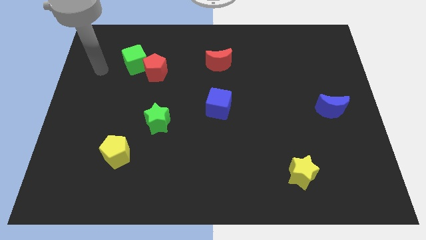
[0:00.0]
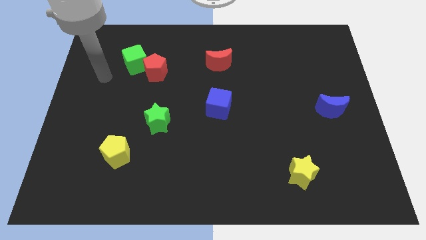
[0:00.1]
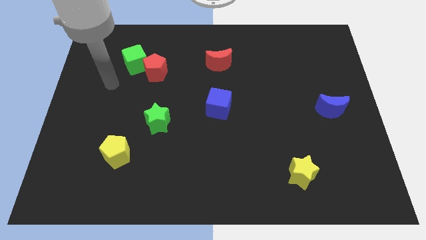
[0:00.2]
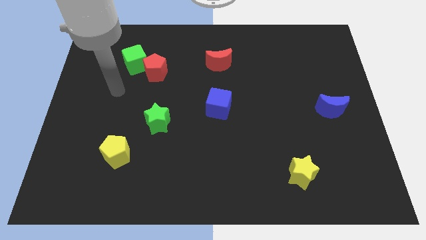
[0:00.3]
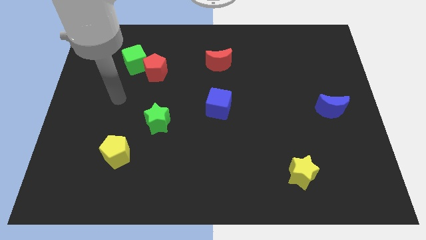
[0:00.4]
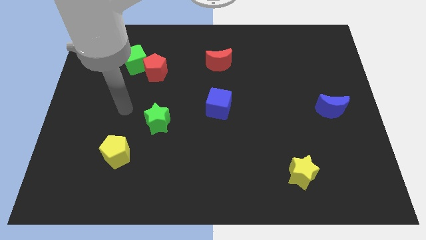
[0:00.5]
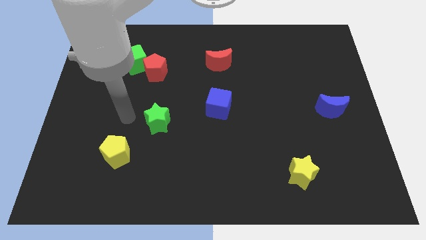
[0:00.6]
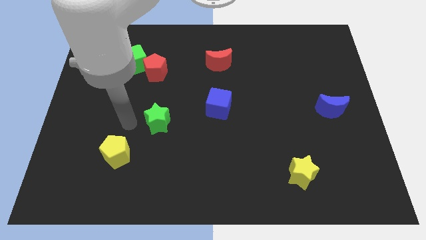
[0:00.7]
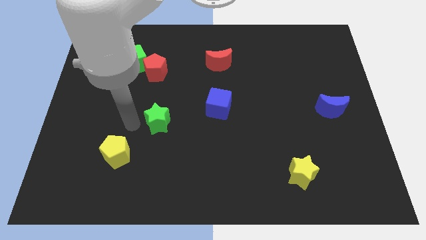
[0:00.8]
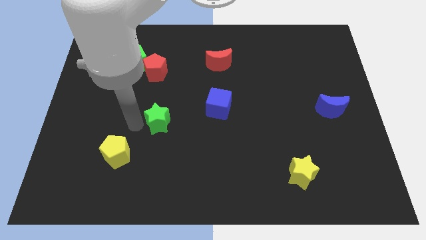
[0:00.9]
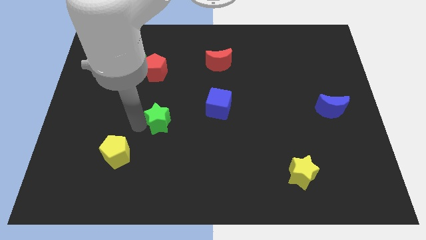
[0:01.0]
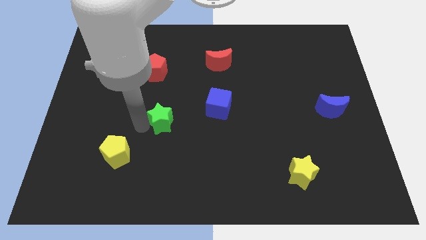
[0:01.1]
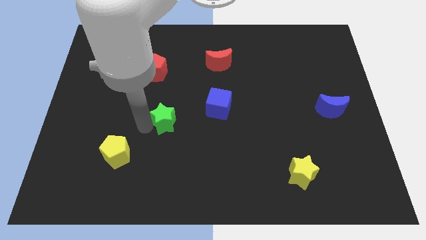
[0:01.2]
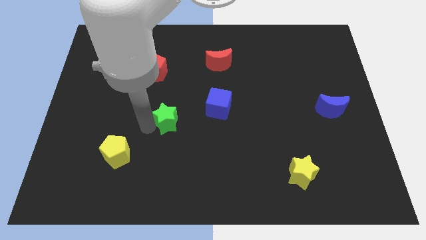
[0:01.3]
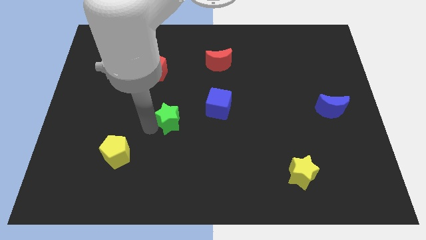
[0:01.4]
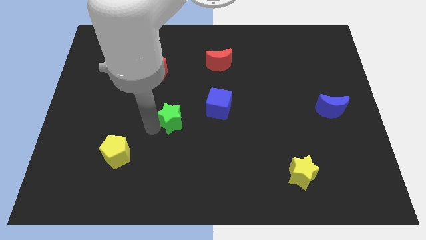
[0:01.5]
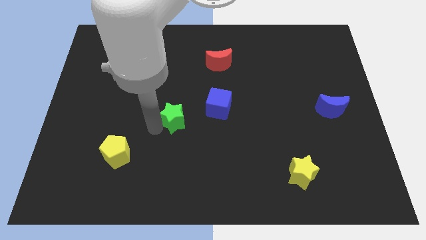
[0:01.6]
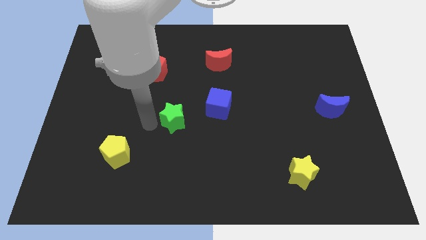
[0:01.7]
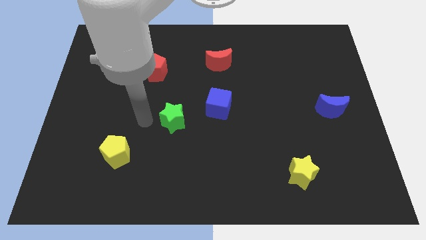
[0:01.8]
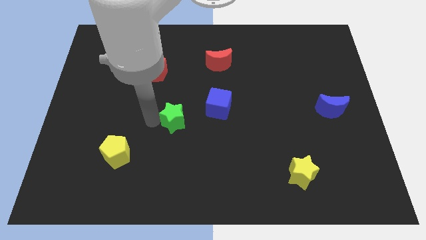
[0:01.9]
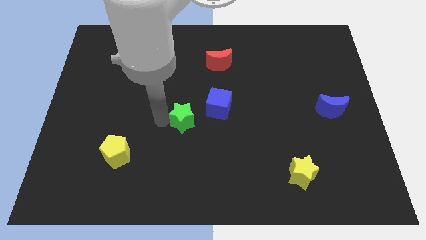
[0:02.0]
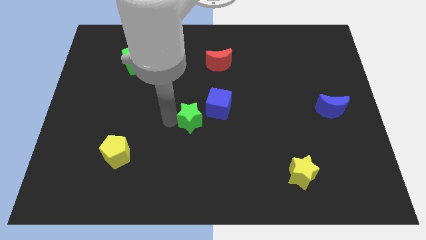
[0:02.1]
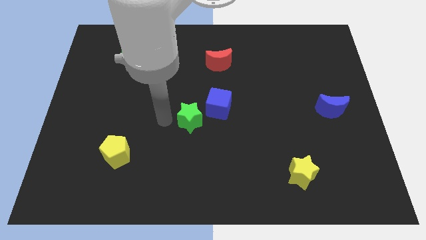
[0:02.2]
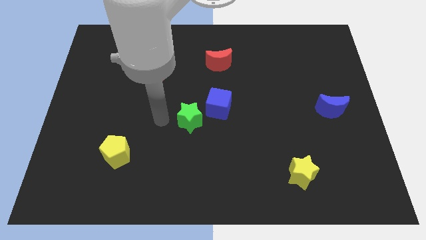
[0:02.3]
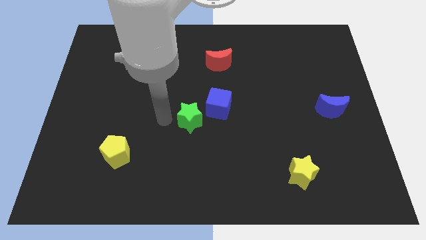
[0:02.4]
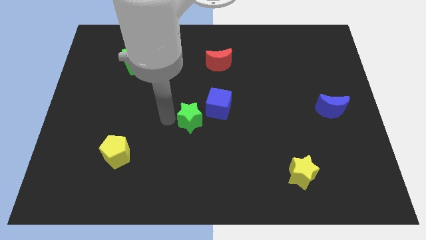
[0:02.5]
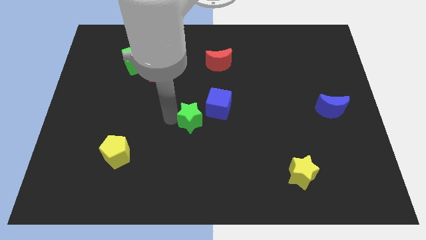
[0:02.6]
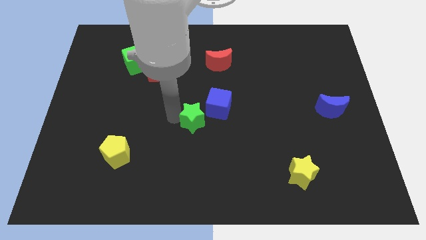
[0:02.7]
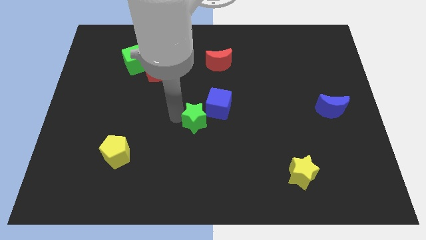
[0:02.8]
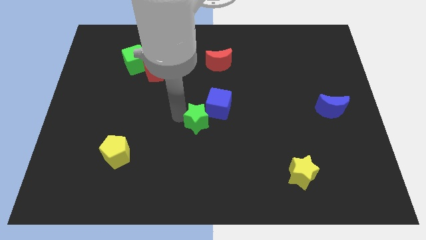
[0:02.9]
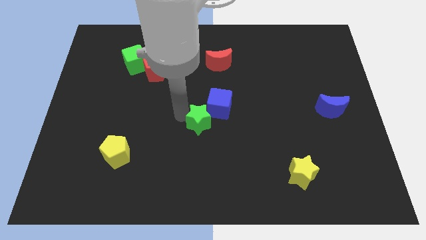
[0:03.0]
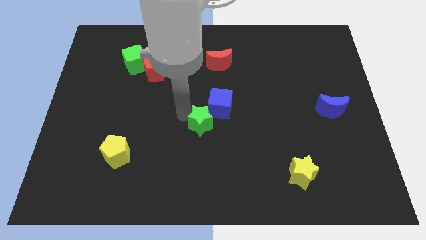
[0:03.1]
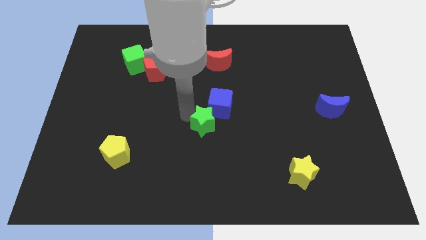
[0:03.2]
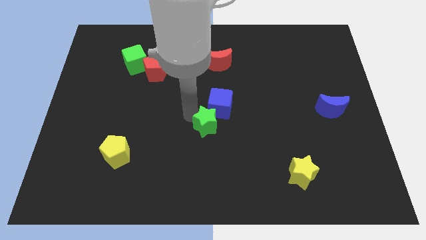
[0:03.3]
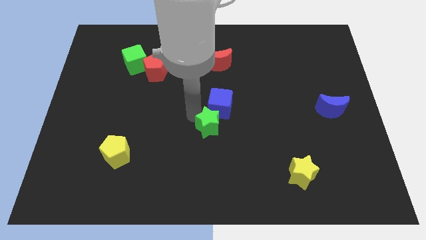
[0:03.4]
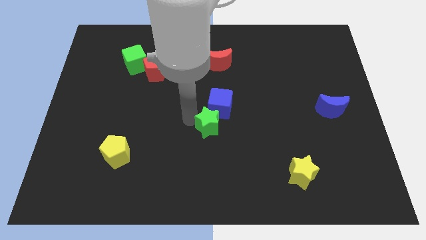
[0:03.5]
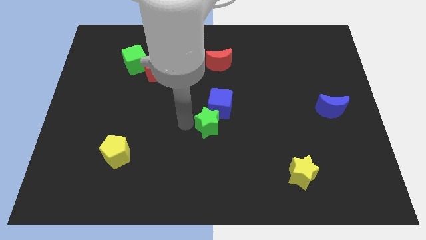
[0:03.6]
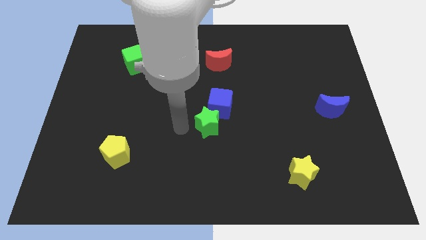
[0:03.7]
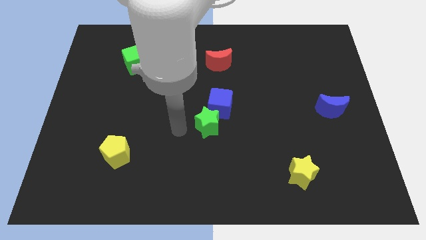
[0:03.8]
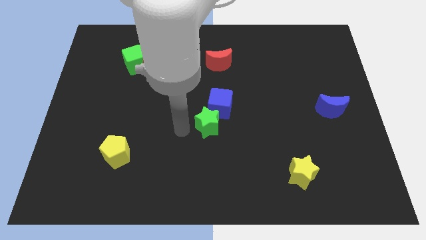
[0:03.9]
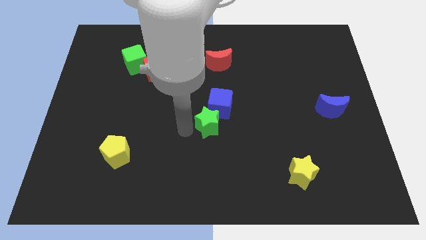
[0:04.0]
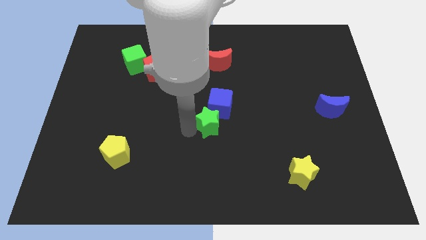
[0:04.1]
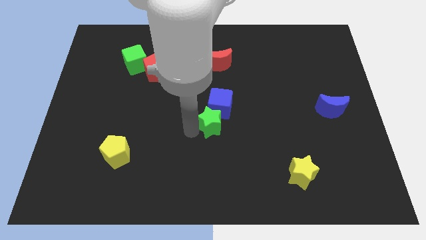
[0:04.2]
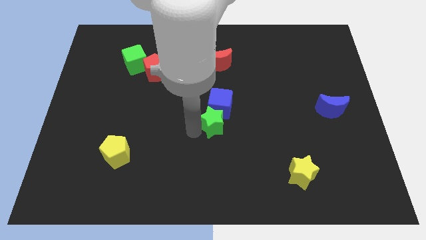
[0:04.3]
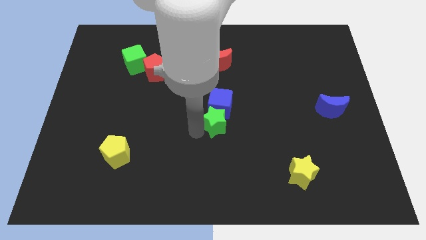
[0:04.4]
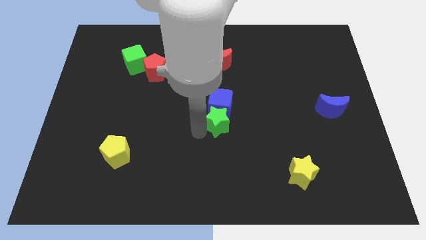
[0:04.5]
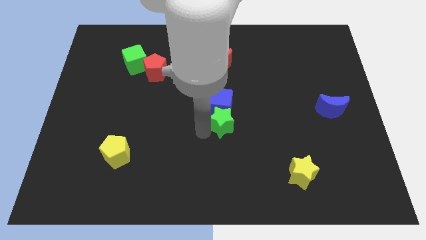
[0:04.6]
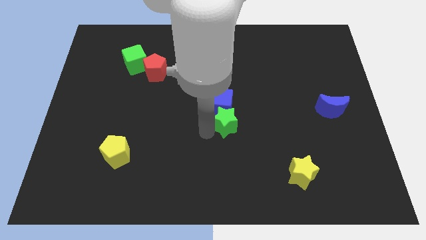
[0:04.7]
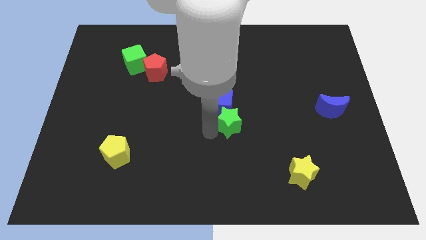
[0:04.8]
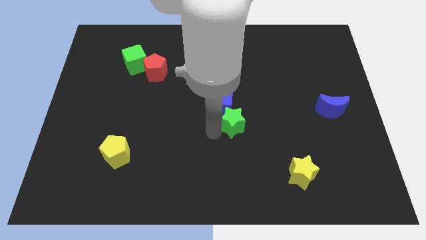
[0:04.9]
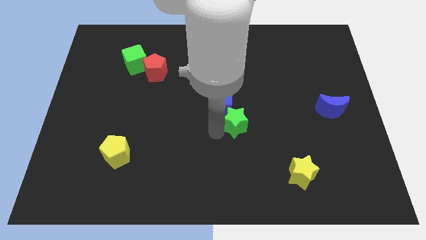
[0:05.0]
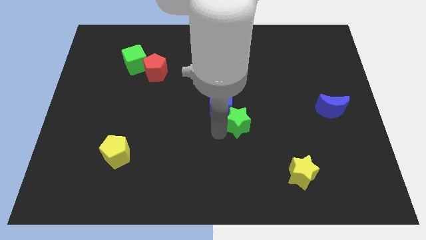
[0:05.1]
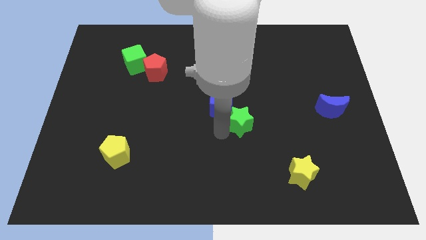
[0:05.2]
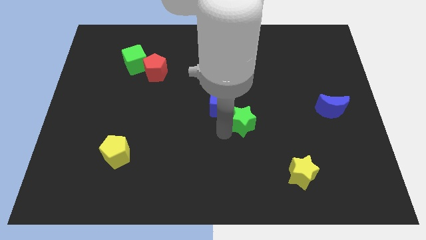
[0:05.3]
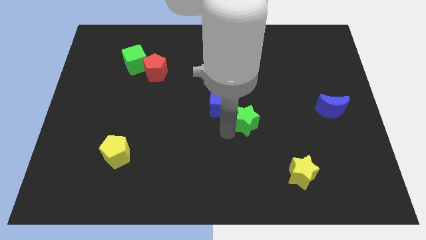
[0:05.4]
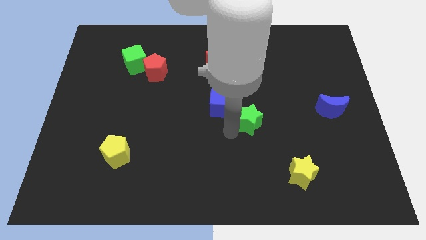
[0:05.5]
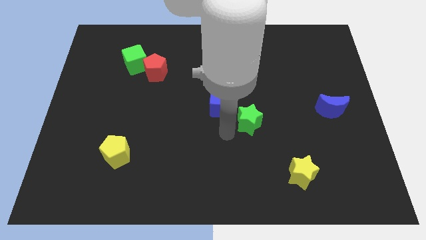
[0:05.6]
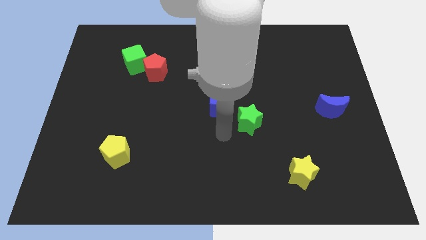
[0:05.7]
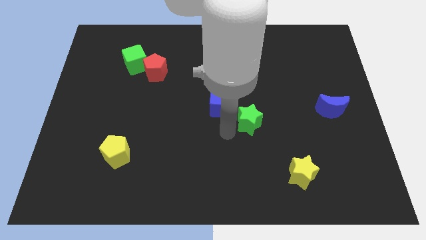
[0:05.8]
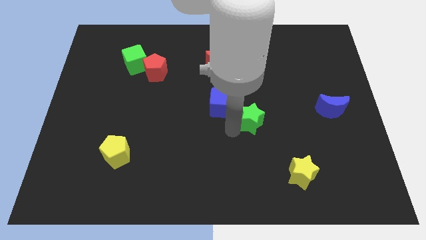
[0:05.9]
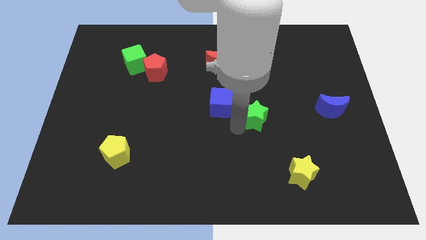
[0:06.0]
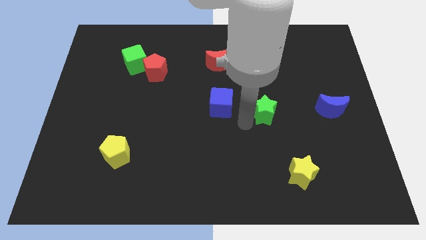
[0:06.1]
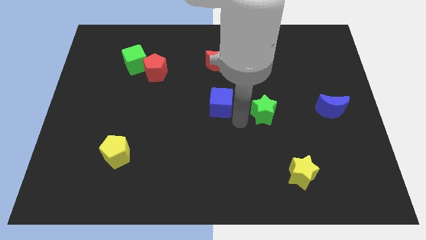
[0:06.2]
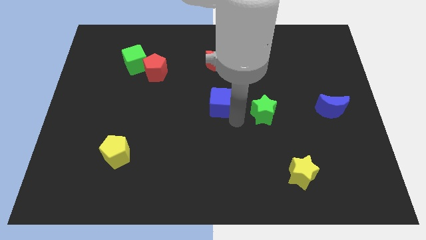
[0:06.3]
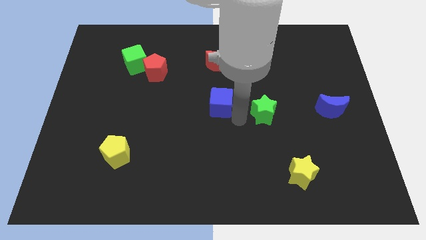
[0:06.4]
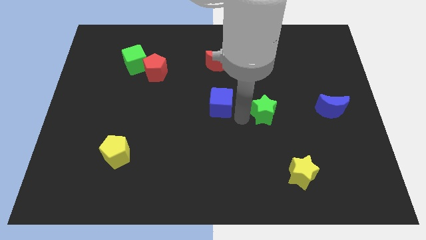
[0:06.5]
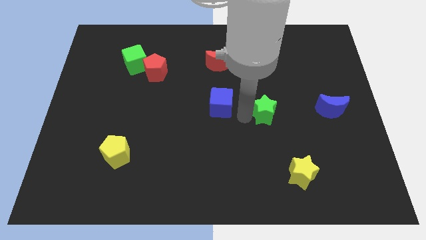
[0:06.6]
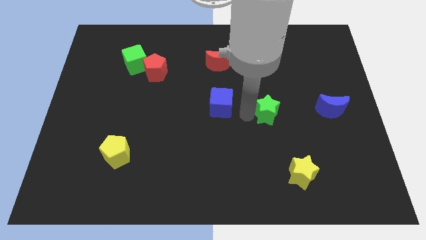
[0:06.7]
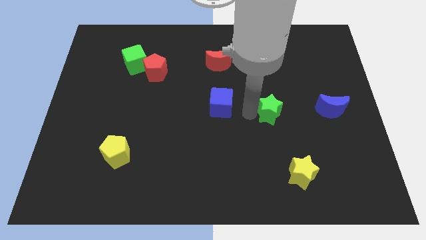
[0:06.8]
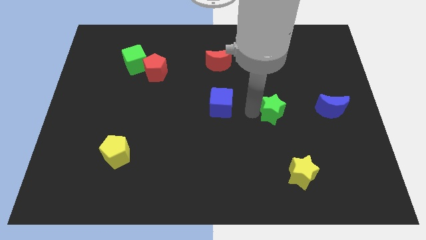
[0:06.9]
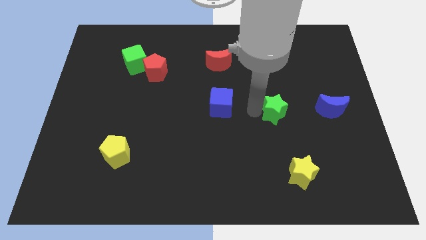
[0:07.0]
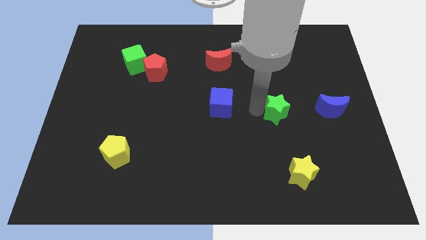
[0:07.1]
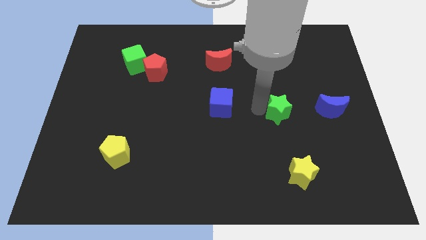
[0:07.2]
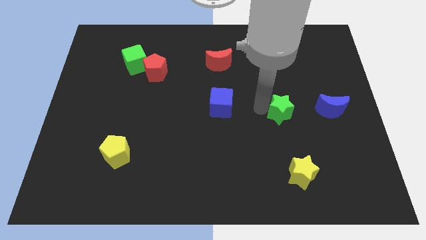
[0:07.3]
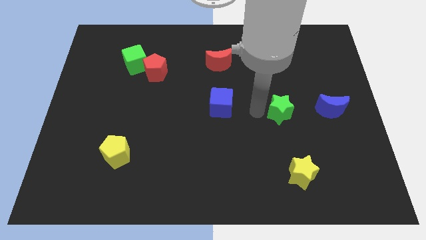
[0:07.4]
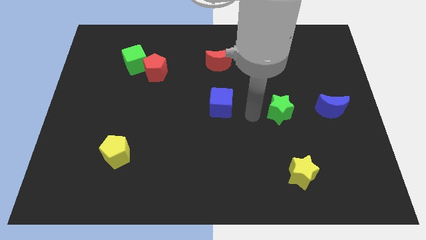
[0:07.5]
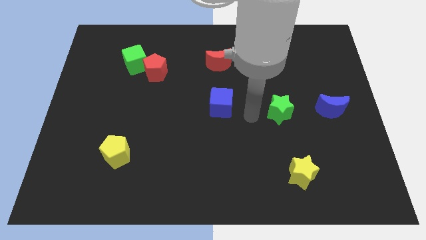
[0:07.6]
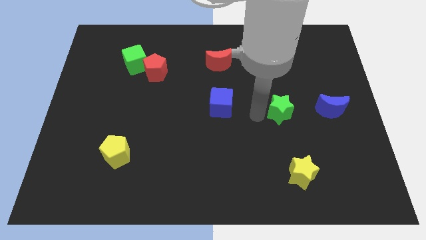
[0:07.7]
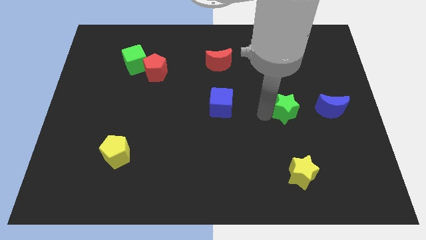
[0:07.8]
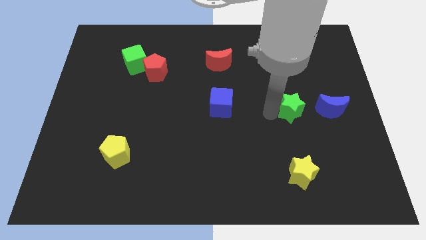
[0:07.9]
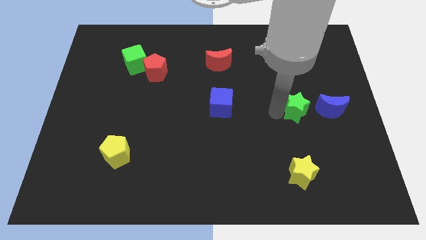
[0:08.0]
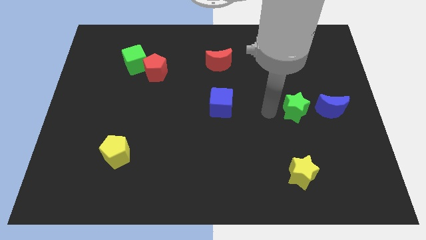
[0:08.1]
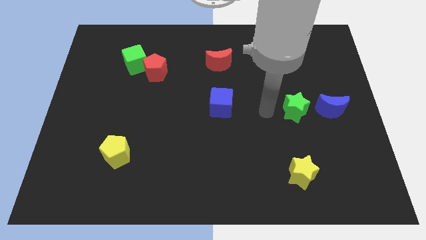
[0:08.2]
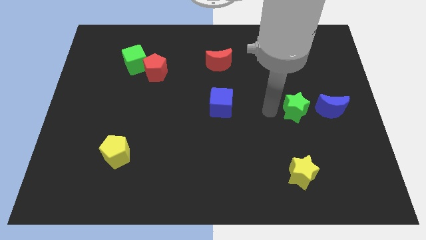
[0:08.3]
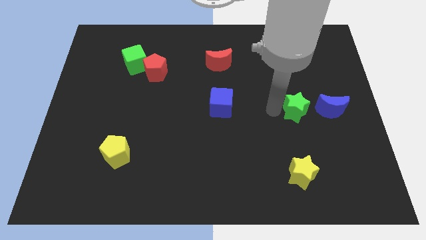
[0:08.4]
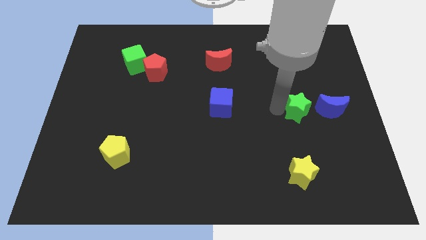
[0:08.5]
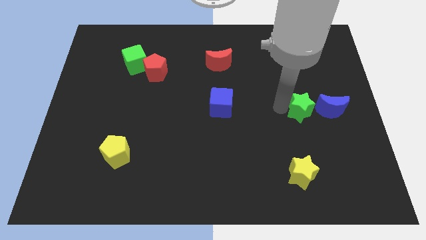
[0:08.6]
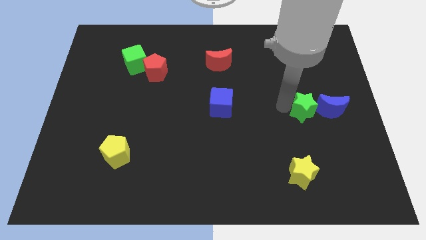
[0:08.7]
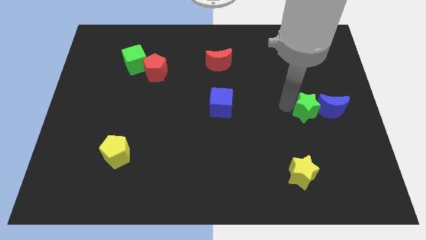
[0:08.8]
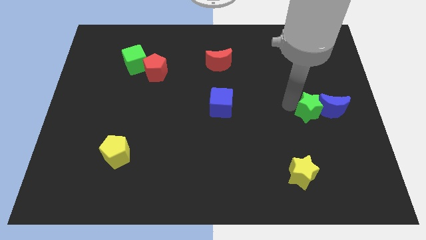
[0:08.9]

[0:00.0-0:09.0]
move the green star next to the blue moon
